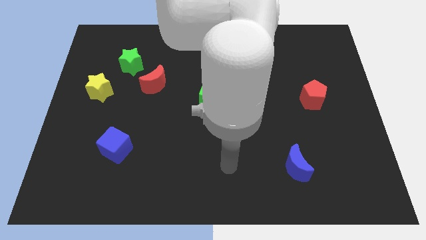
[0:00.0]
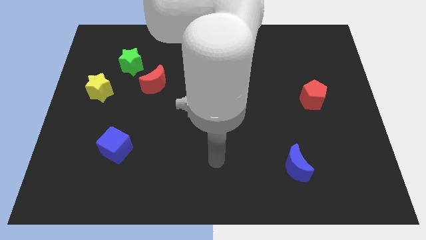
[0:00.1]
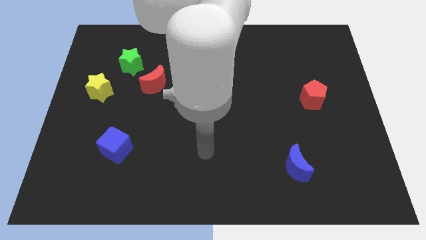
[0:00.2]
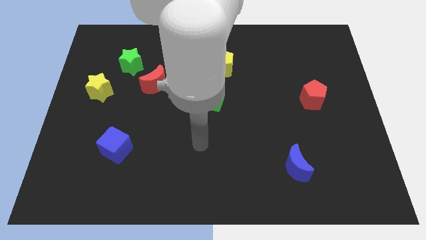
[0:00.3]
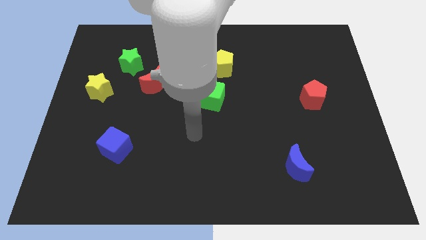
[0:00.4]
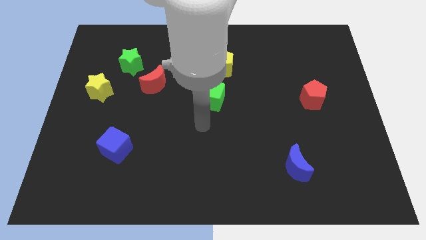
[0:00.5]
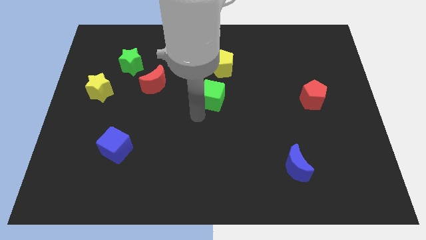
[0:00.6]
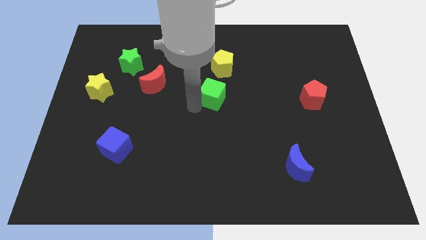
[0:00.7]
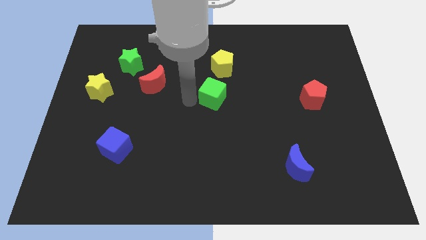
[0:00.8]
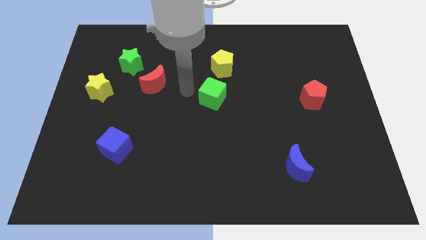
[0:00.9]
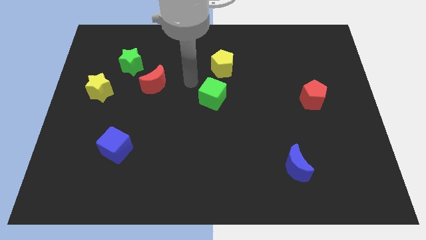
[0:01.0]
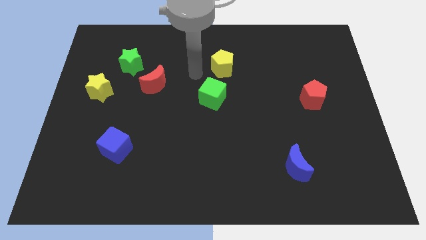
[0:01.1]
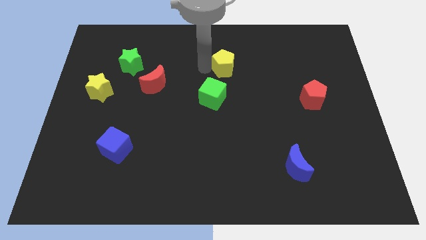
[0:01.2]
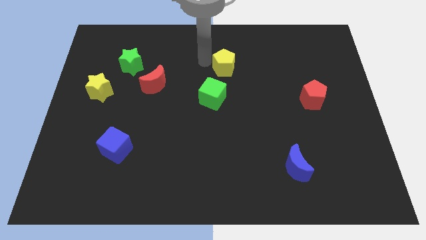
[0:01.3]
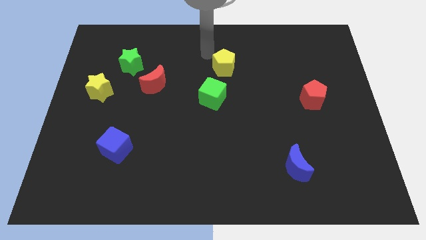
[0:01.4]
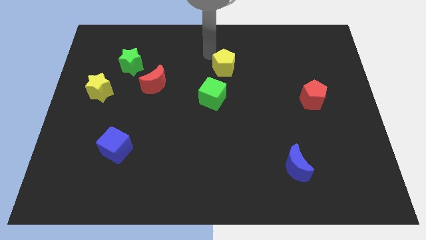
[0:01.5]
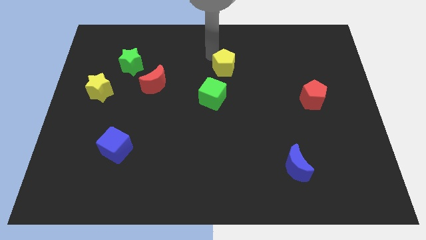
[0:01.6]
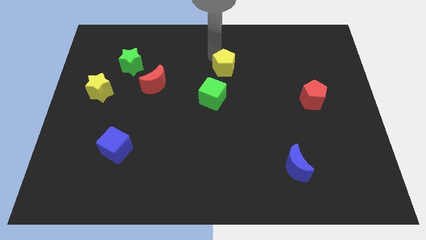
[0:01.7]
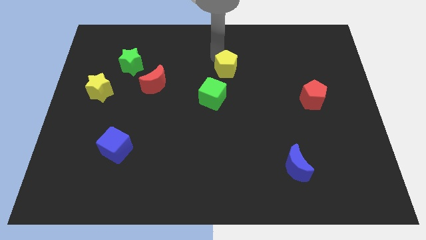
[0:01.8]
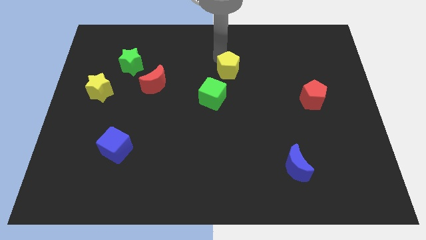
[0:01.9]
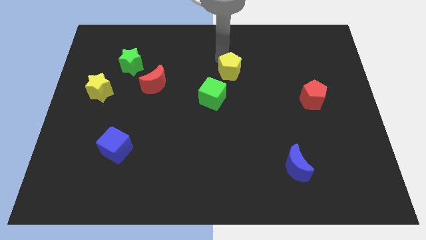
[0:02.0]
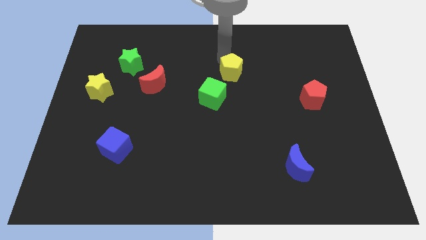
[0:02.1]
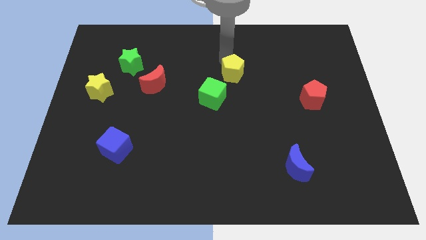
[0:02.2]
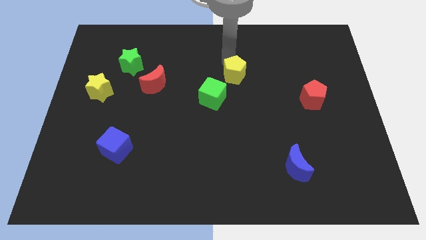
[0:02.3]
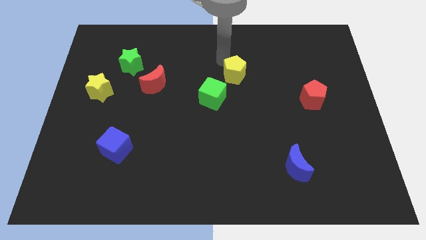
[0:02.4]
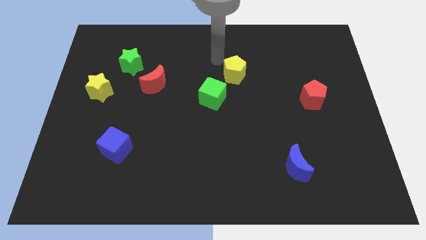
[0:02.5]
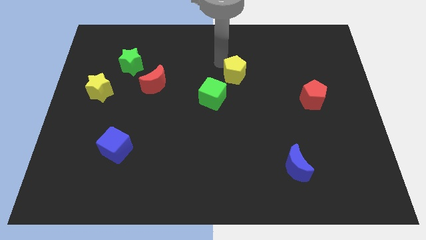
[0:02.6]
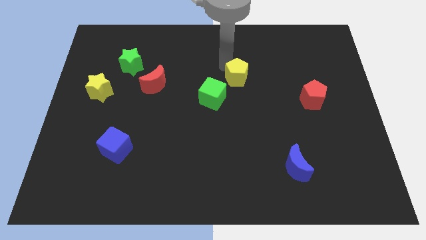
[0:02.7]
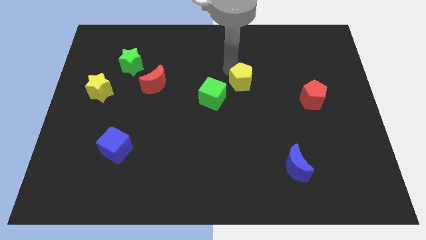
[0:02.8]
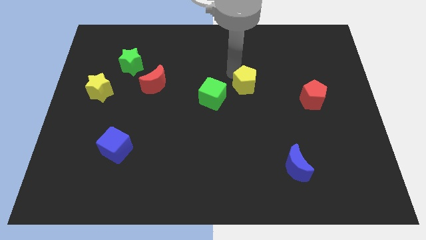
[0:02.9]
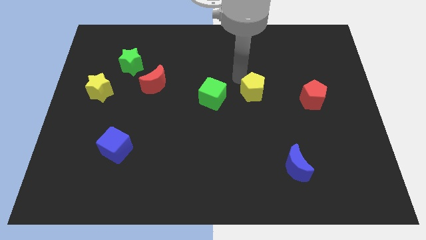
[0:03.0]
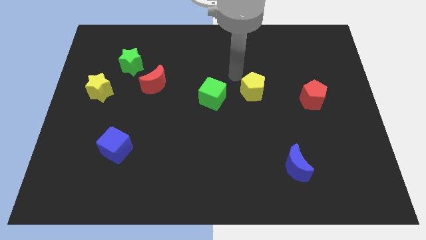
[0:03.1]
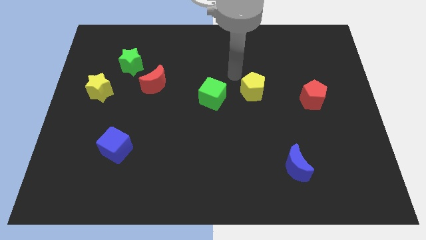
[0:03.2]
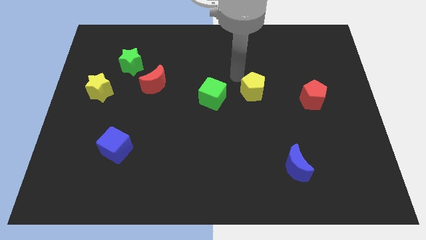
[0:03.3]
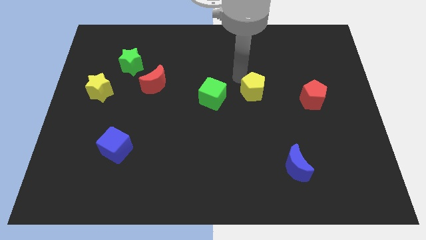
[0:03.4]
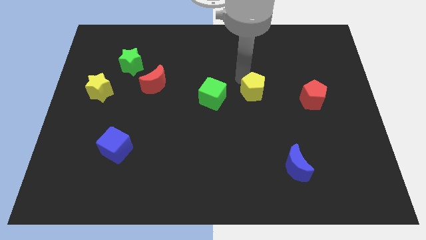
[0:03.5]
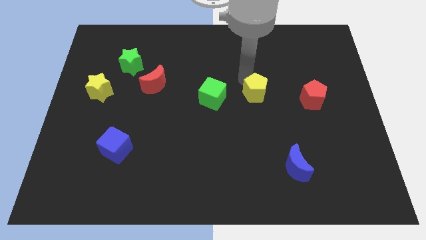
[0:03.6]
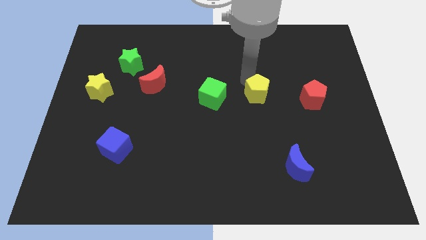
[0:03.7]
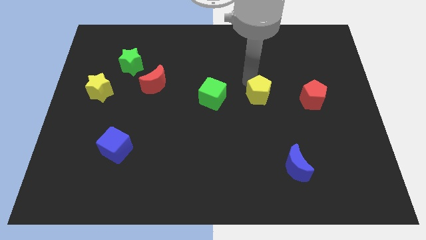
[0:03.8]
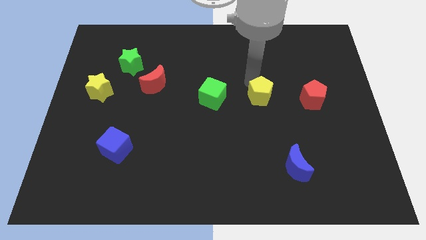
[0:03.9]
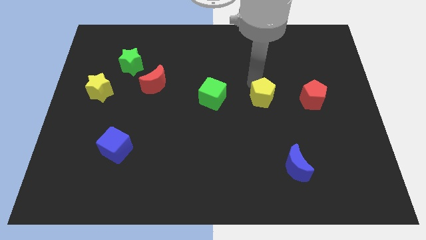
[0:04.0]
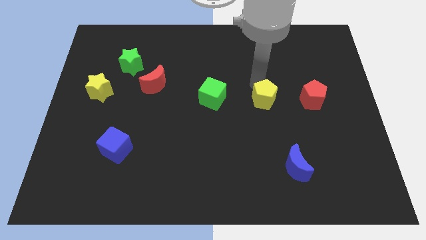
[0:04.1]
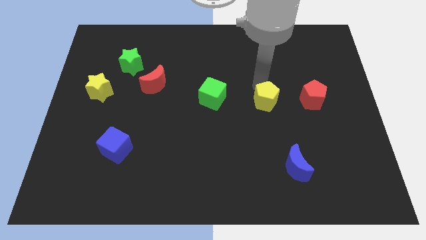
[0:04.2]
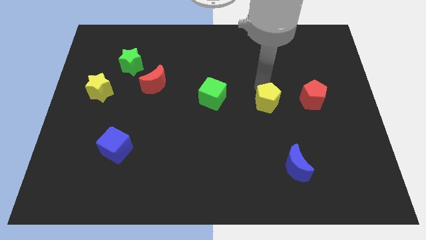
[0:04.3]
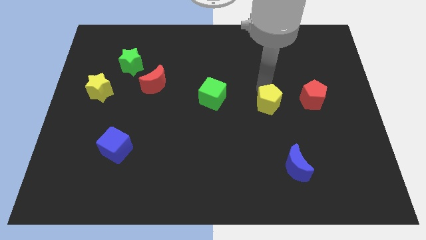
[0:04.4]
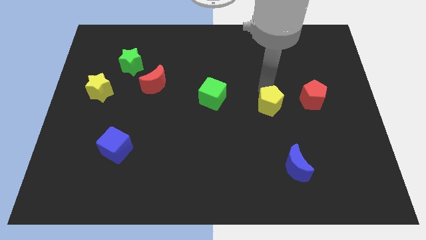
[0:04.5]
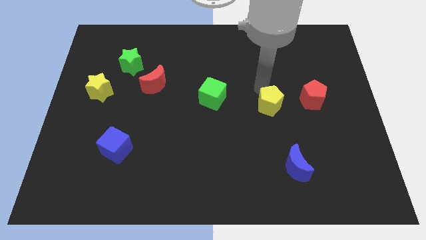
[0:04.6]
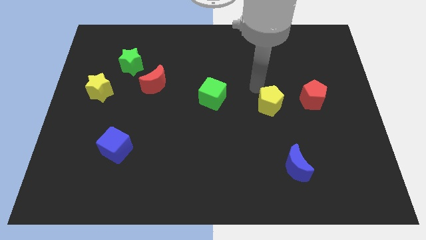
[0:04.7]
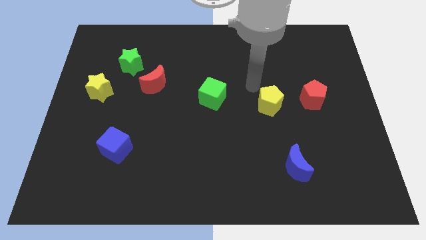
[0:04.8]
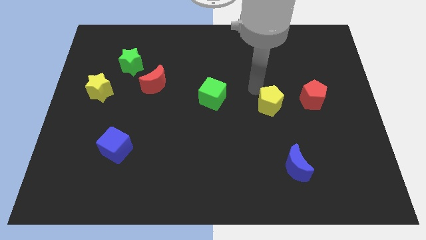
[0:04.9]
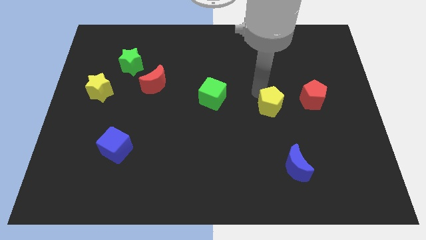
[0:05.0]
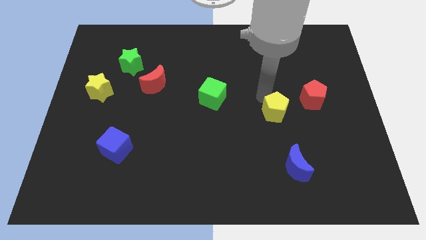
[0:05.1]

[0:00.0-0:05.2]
move the yellow pentagon to the top of the blue moon

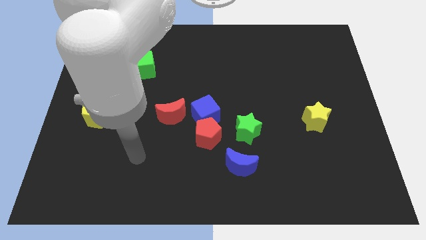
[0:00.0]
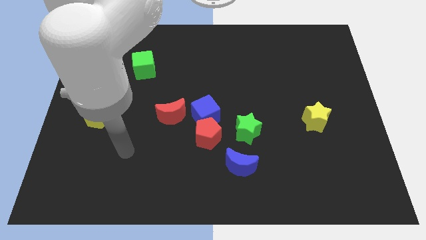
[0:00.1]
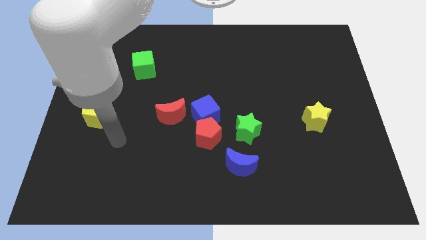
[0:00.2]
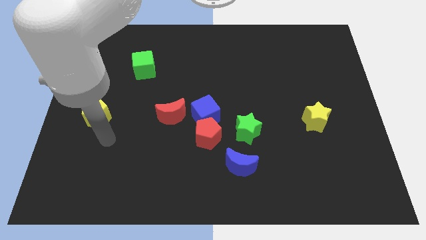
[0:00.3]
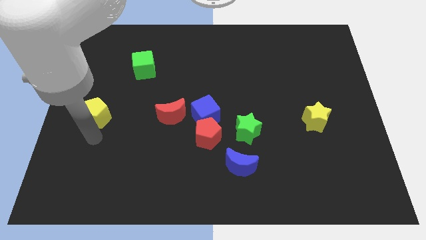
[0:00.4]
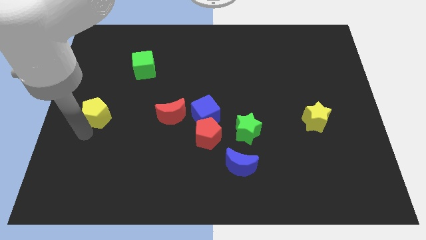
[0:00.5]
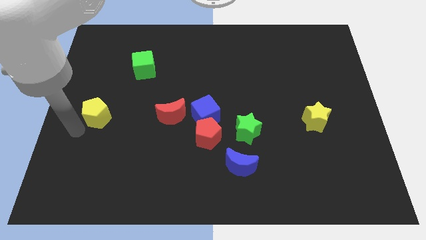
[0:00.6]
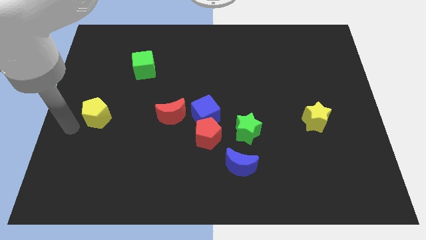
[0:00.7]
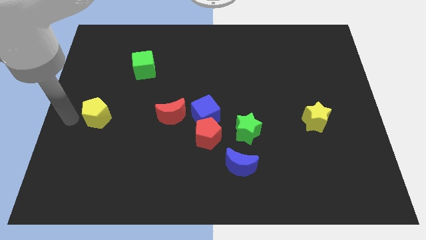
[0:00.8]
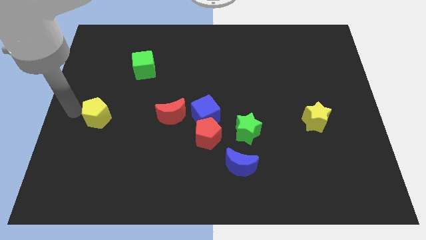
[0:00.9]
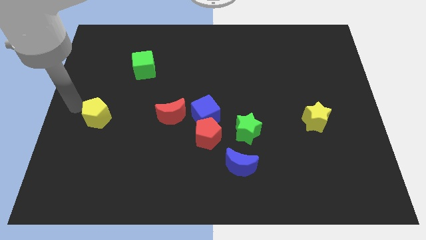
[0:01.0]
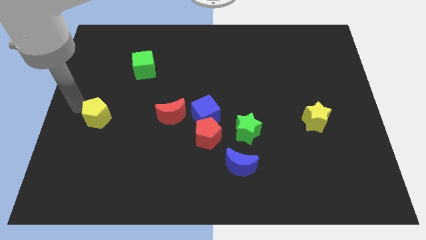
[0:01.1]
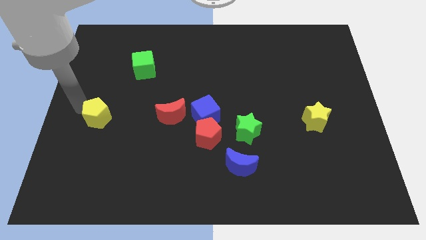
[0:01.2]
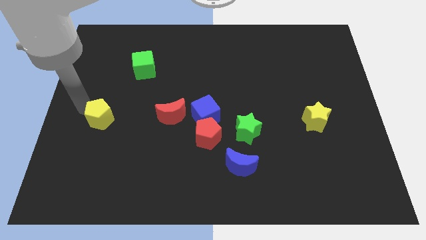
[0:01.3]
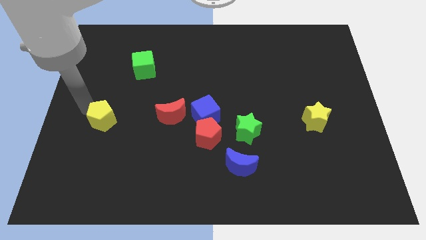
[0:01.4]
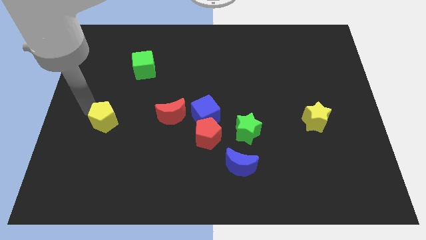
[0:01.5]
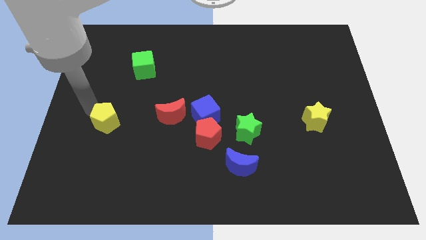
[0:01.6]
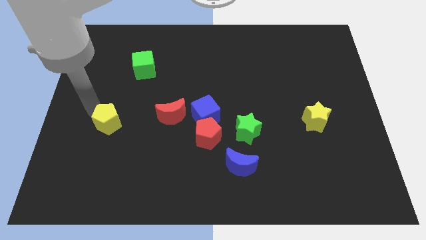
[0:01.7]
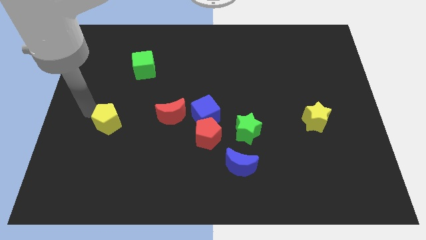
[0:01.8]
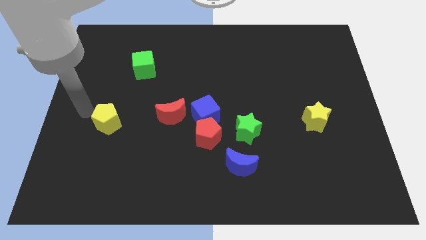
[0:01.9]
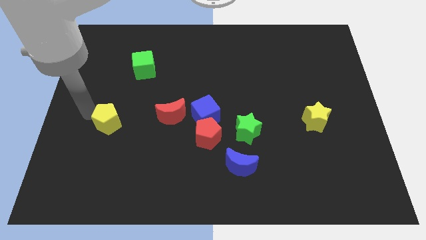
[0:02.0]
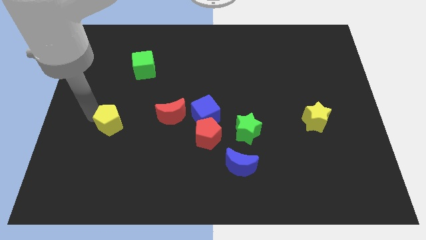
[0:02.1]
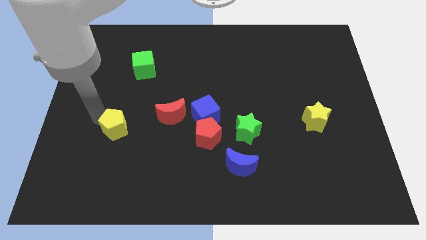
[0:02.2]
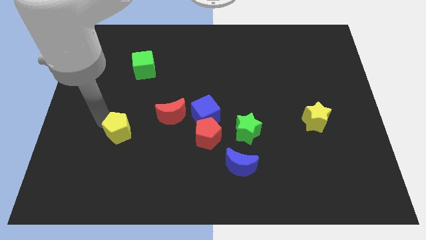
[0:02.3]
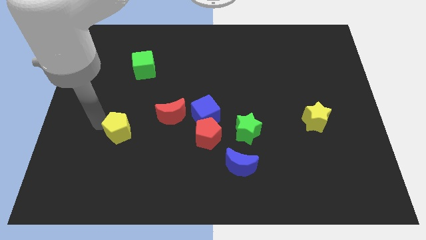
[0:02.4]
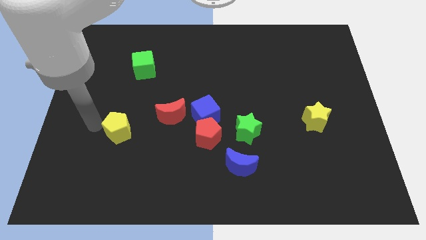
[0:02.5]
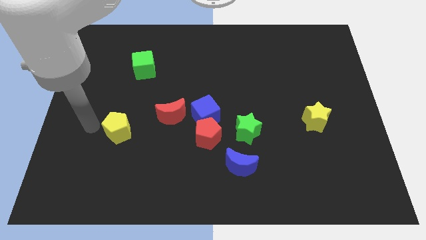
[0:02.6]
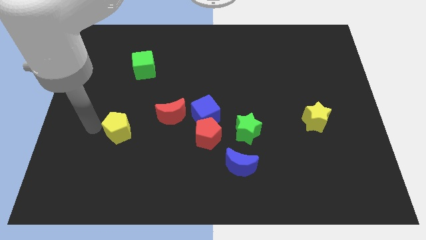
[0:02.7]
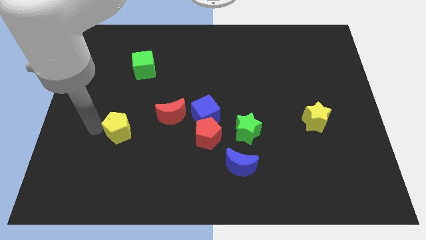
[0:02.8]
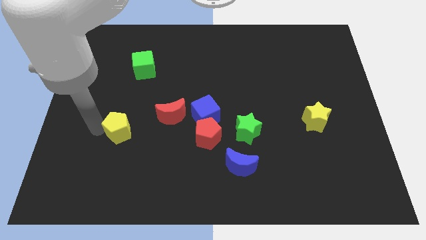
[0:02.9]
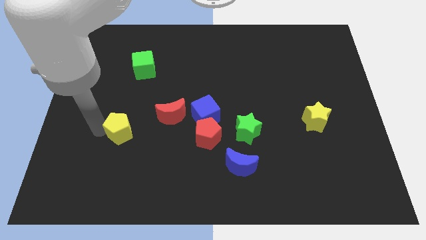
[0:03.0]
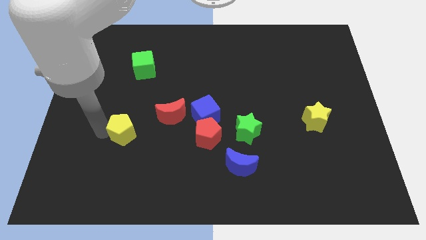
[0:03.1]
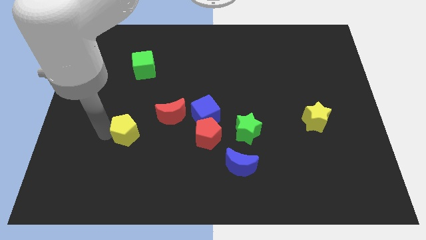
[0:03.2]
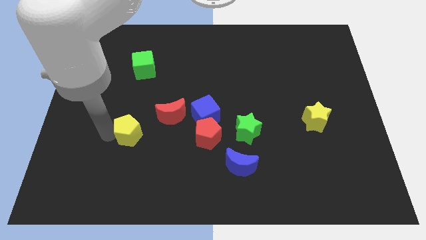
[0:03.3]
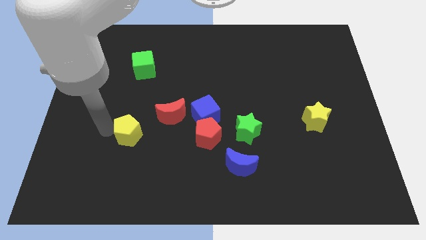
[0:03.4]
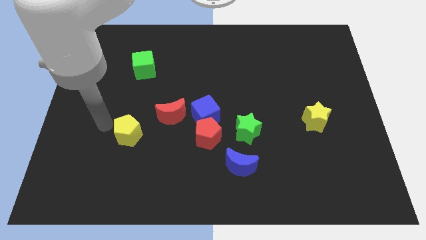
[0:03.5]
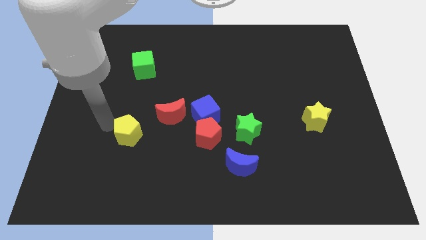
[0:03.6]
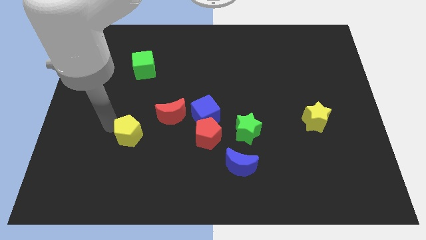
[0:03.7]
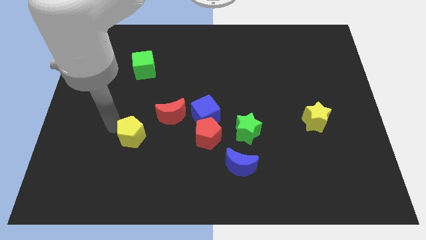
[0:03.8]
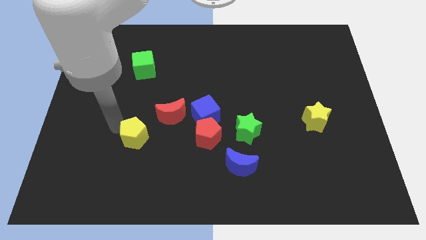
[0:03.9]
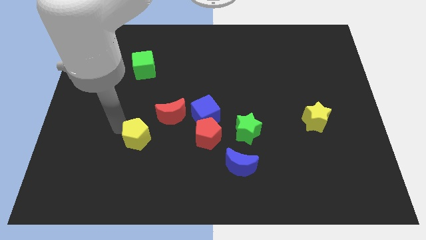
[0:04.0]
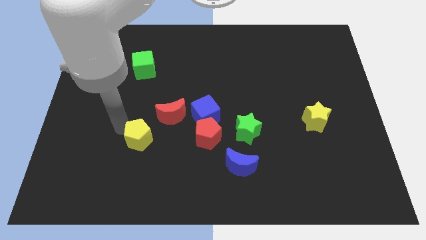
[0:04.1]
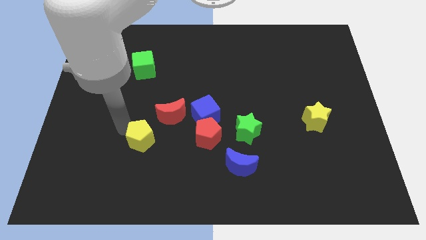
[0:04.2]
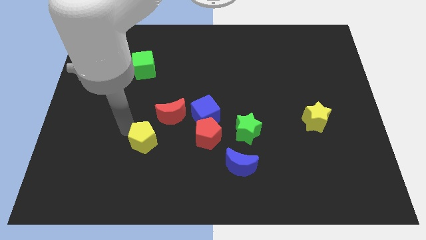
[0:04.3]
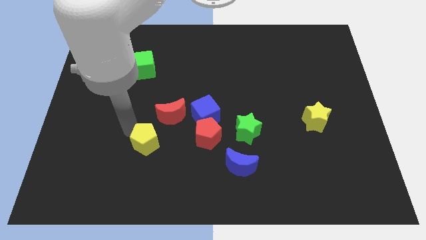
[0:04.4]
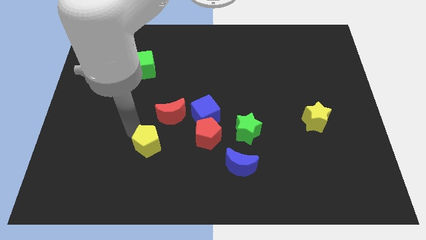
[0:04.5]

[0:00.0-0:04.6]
put the yellow pentagon to the bottom of the red moon
